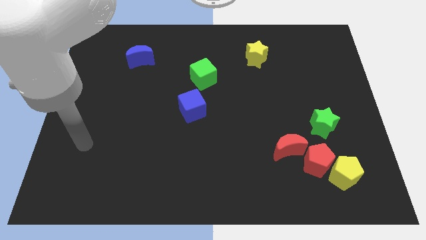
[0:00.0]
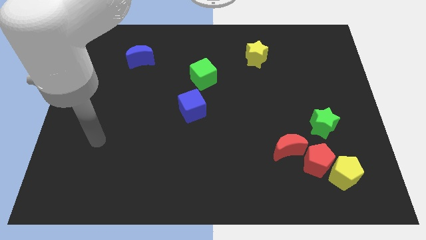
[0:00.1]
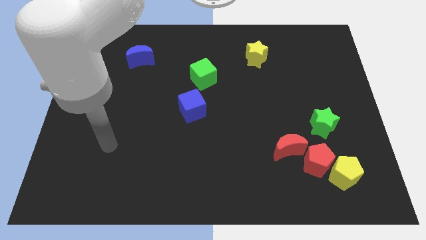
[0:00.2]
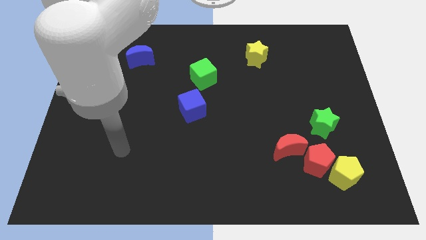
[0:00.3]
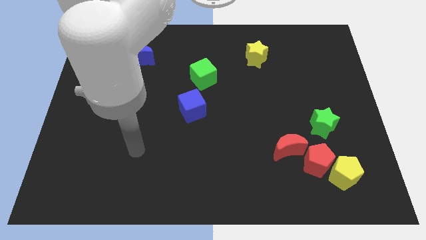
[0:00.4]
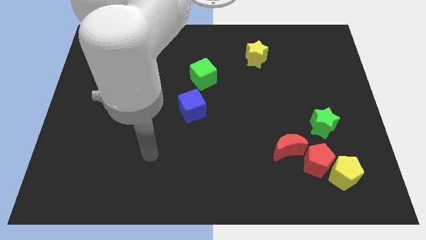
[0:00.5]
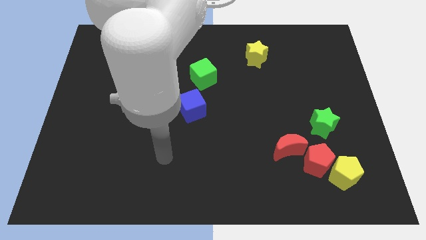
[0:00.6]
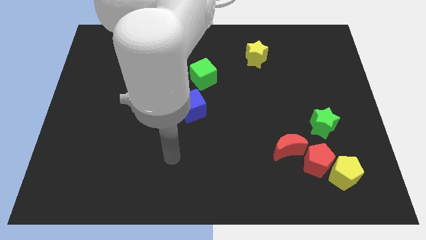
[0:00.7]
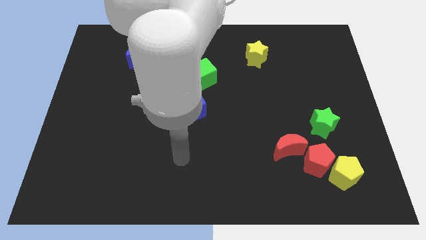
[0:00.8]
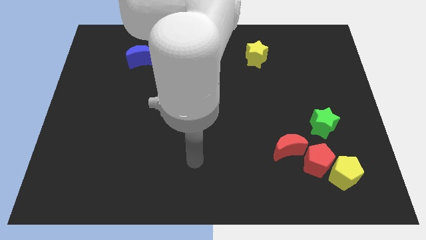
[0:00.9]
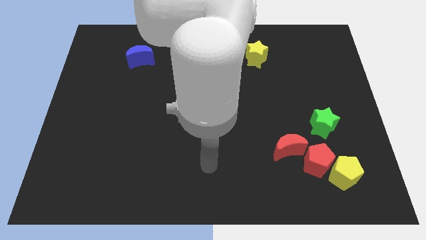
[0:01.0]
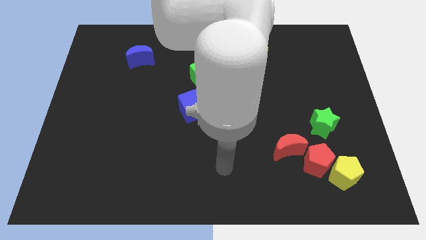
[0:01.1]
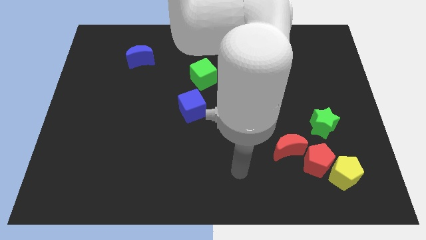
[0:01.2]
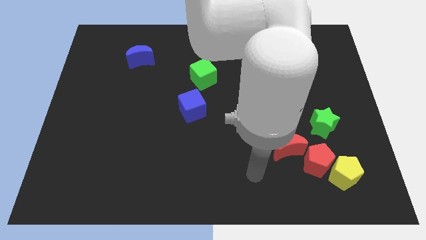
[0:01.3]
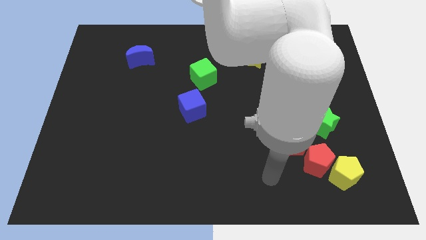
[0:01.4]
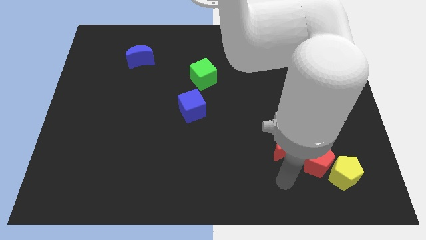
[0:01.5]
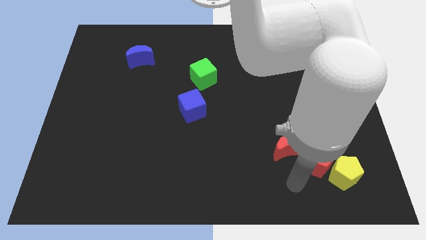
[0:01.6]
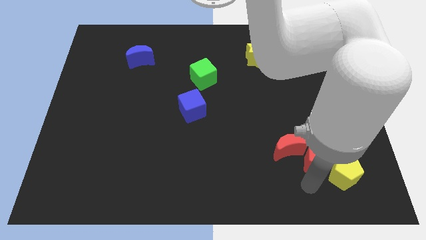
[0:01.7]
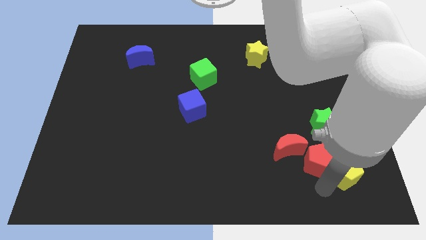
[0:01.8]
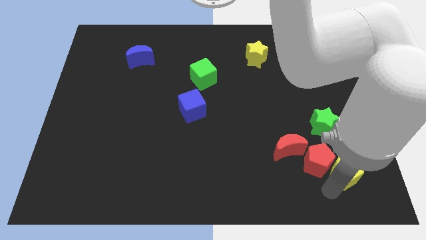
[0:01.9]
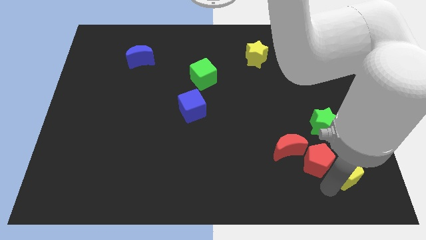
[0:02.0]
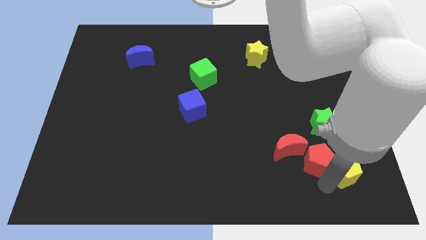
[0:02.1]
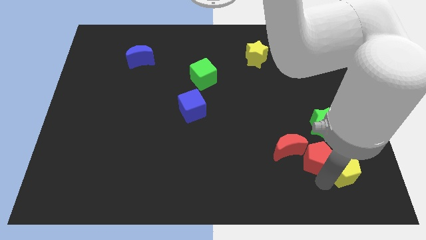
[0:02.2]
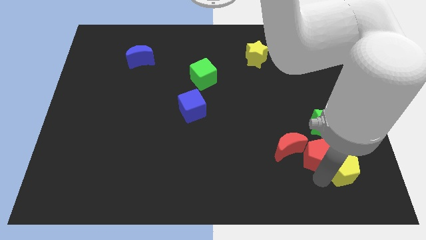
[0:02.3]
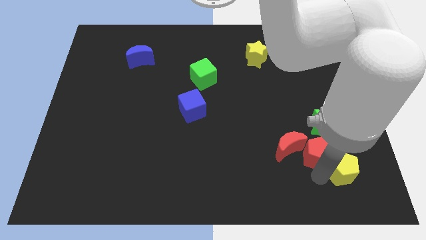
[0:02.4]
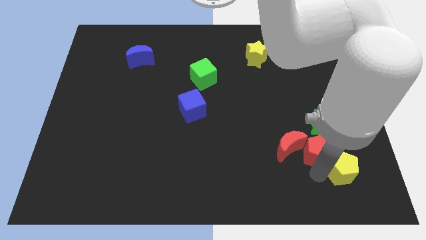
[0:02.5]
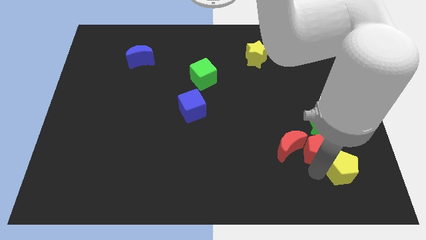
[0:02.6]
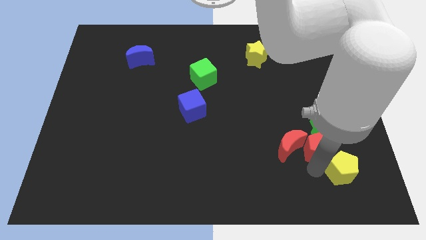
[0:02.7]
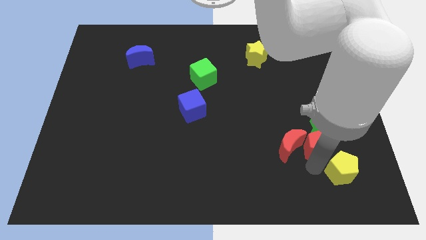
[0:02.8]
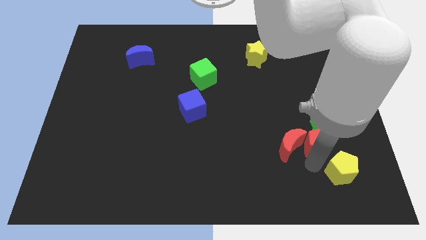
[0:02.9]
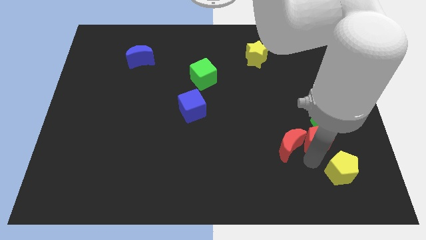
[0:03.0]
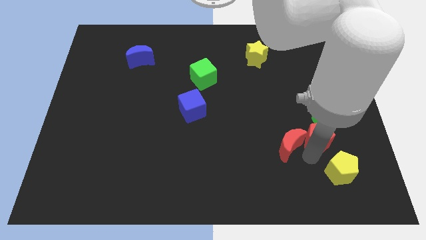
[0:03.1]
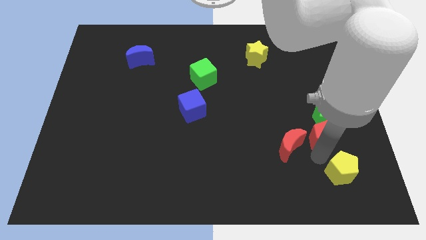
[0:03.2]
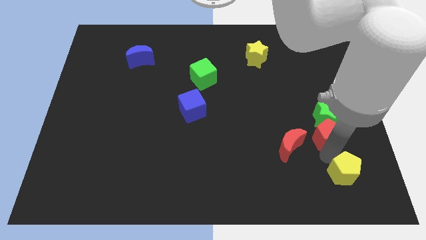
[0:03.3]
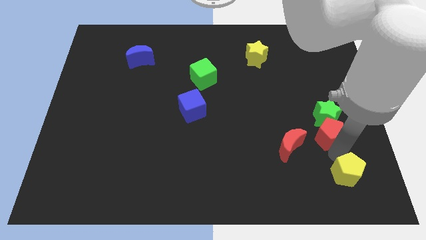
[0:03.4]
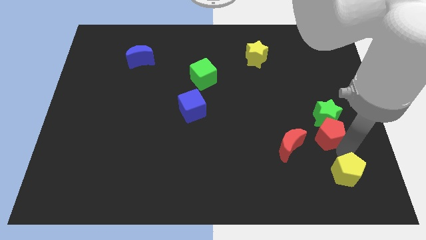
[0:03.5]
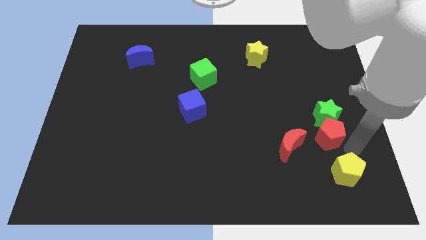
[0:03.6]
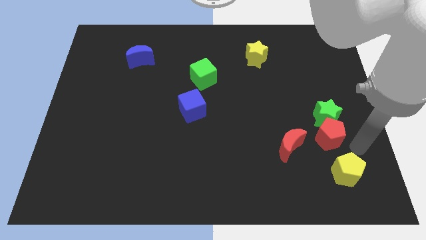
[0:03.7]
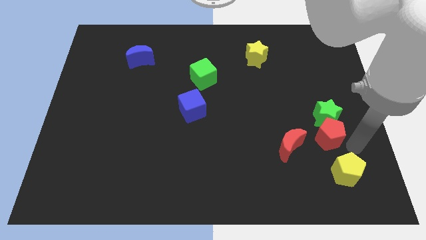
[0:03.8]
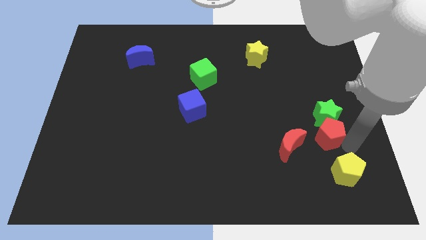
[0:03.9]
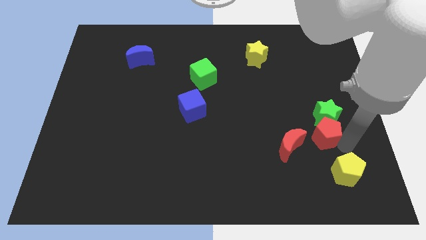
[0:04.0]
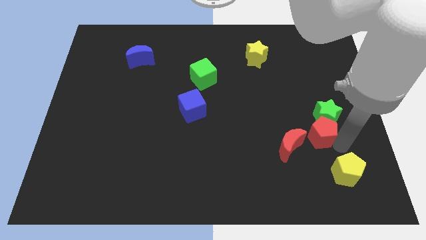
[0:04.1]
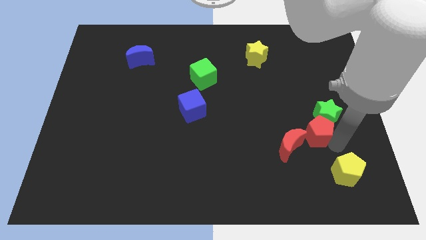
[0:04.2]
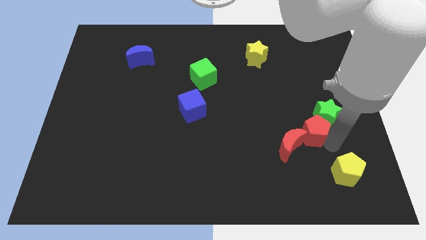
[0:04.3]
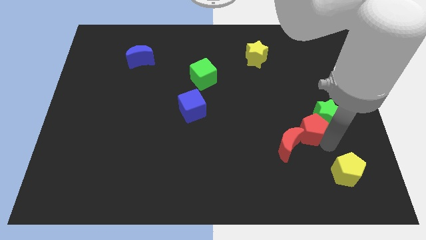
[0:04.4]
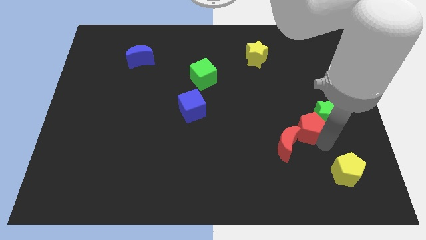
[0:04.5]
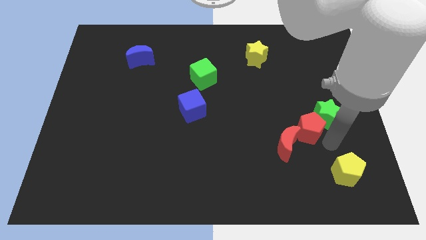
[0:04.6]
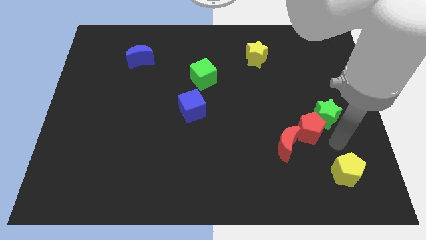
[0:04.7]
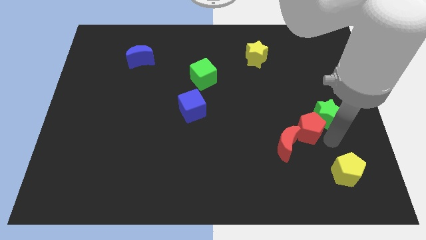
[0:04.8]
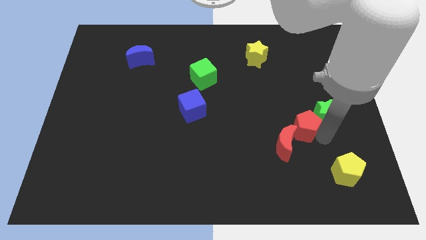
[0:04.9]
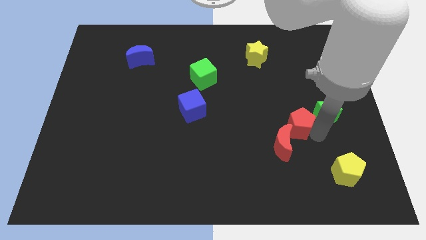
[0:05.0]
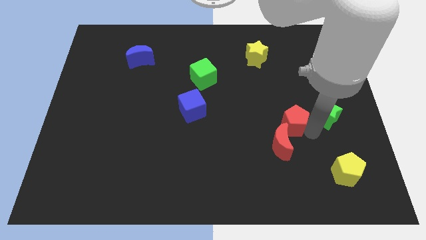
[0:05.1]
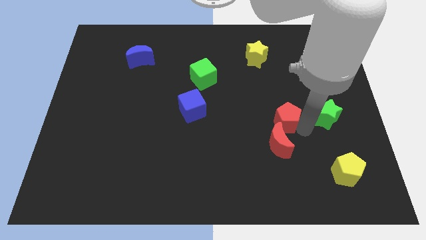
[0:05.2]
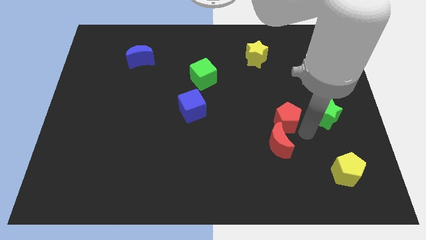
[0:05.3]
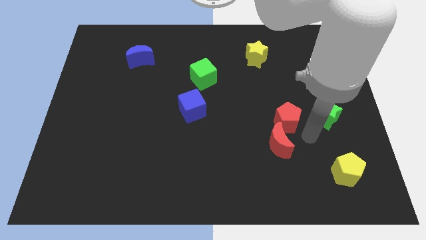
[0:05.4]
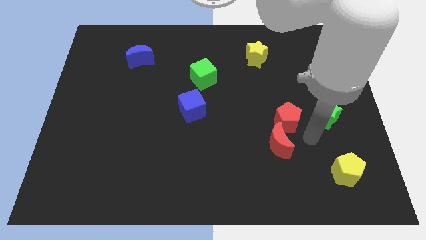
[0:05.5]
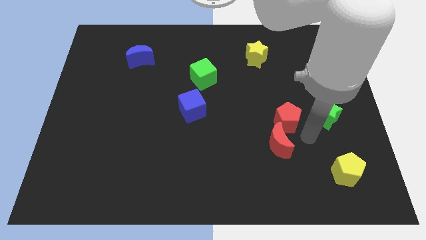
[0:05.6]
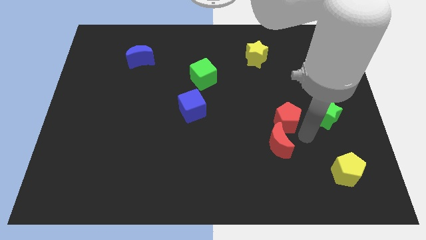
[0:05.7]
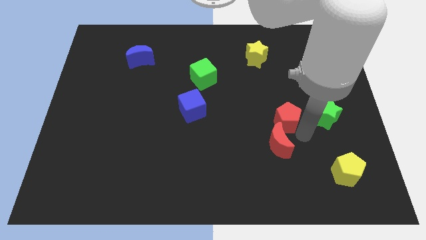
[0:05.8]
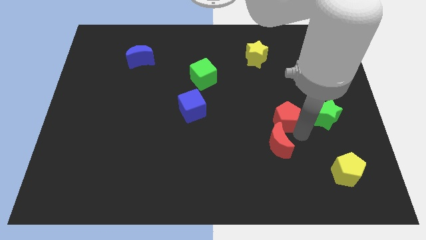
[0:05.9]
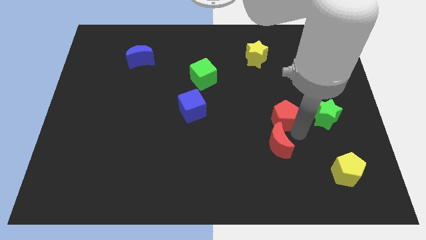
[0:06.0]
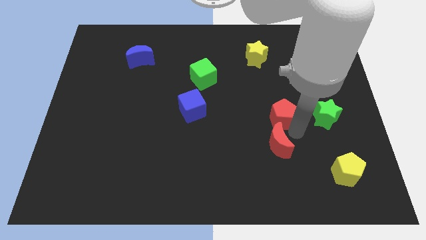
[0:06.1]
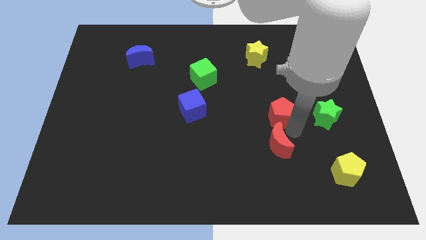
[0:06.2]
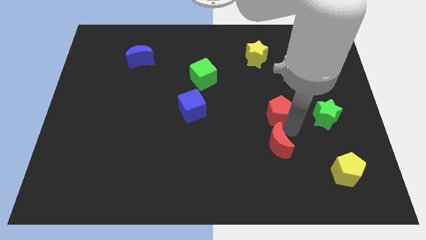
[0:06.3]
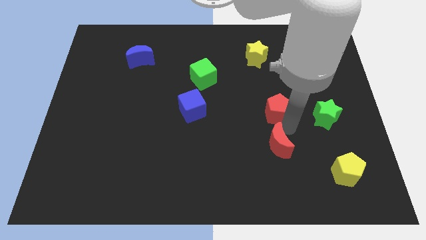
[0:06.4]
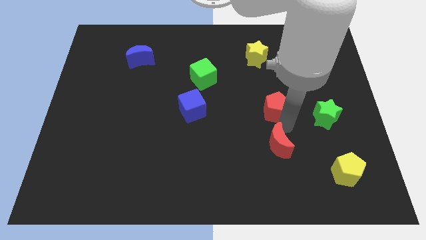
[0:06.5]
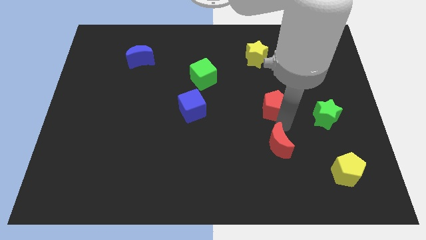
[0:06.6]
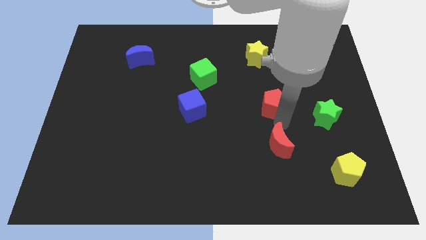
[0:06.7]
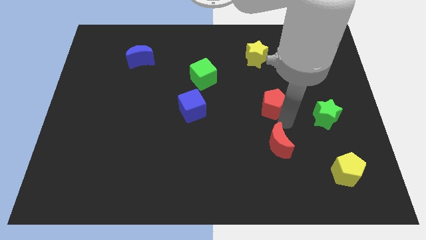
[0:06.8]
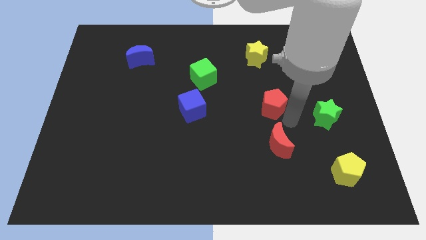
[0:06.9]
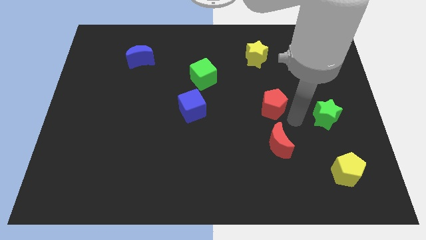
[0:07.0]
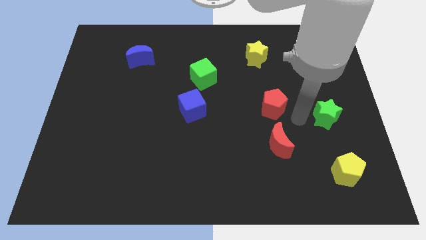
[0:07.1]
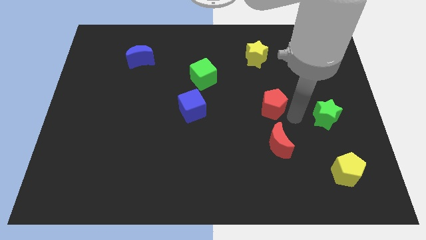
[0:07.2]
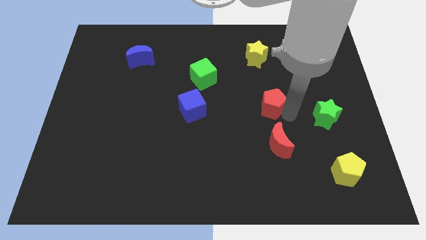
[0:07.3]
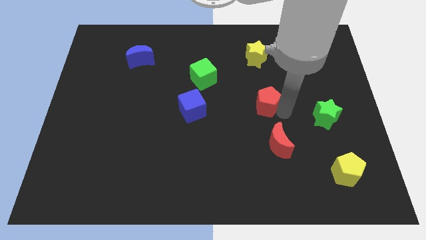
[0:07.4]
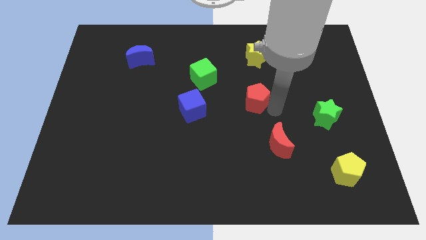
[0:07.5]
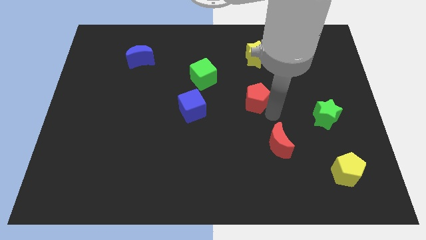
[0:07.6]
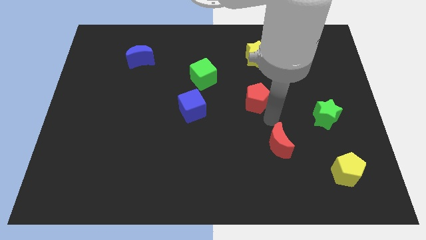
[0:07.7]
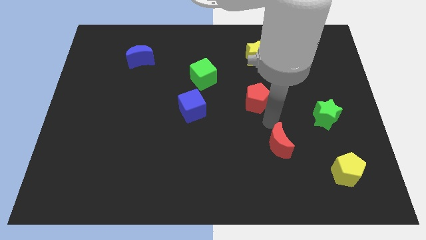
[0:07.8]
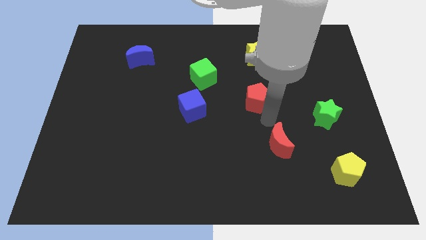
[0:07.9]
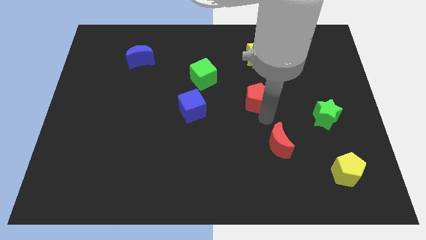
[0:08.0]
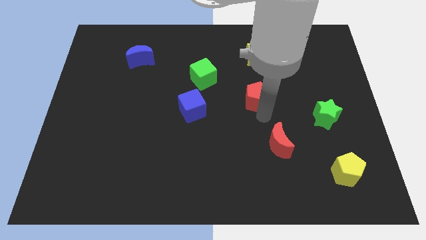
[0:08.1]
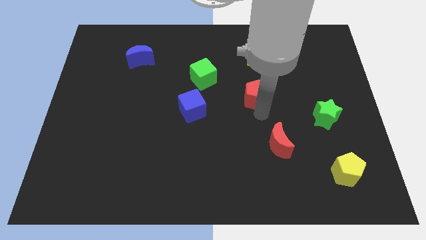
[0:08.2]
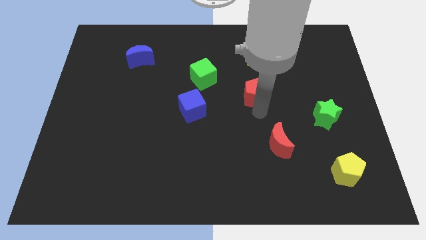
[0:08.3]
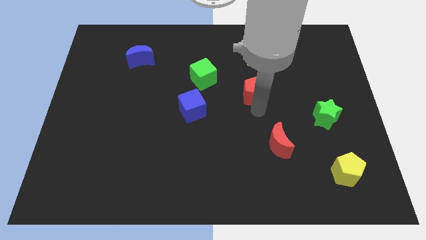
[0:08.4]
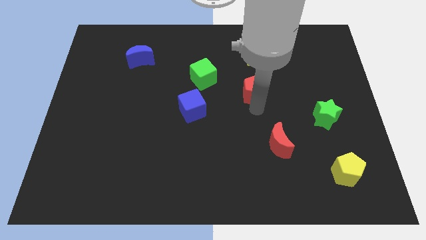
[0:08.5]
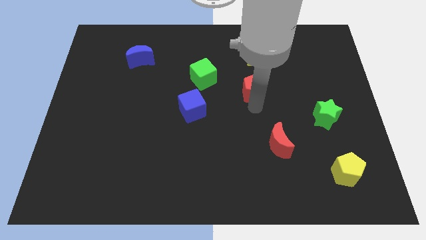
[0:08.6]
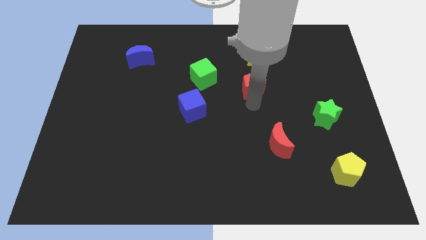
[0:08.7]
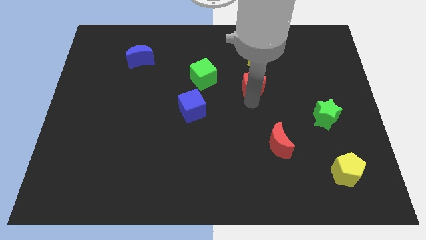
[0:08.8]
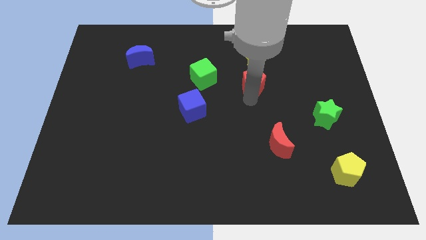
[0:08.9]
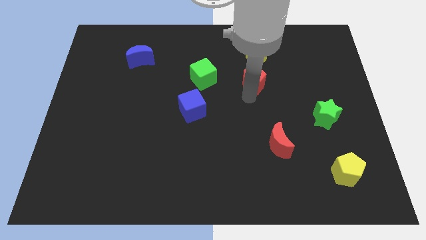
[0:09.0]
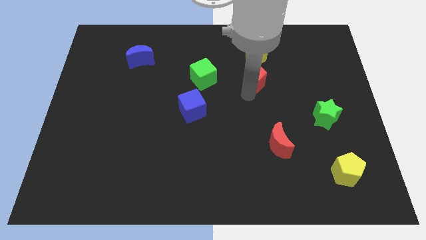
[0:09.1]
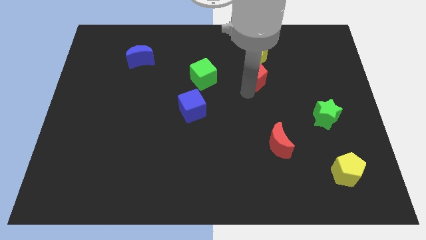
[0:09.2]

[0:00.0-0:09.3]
move the red pentagon to the bottom left of the yellow star
